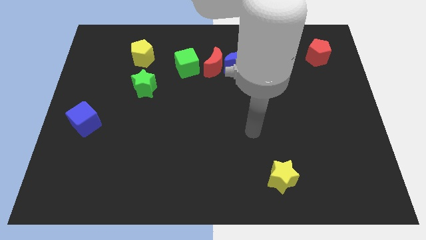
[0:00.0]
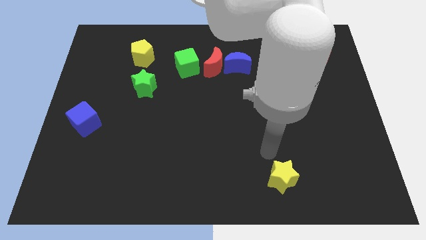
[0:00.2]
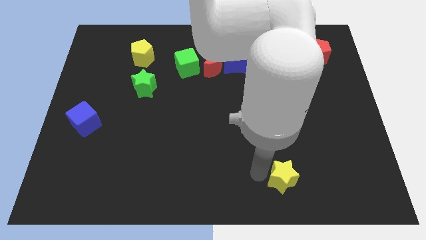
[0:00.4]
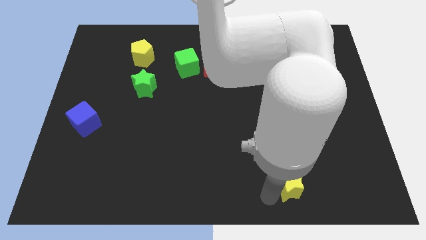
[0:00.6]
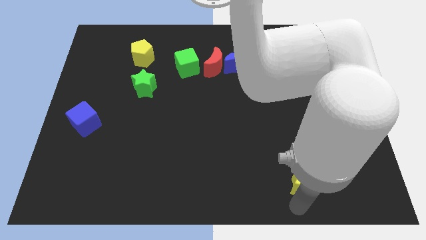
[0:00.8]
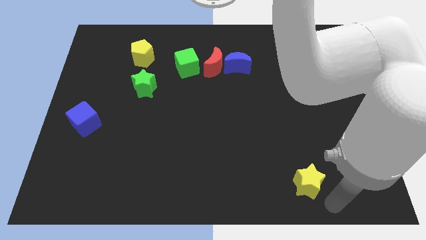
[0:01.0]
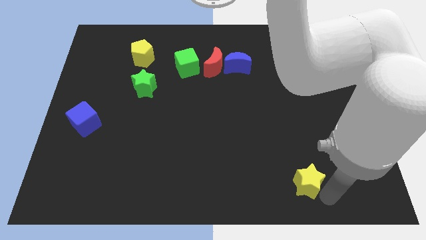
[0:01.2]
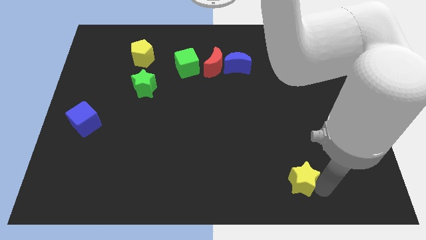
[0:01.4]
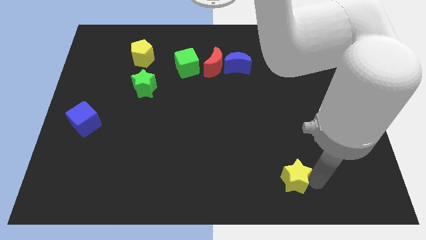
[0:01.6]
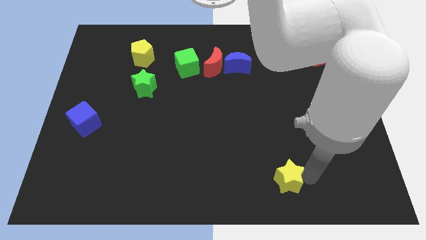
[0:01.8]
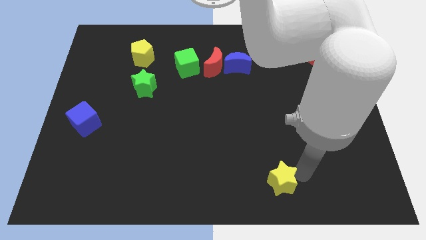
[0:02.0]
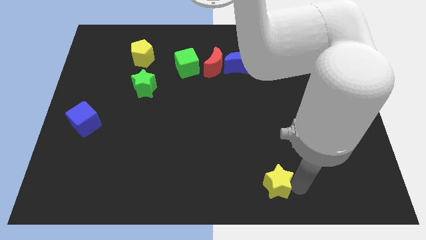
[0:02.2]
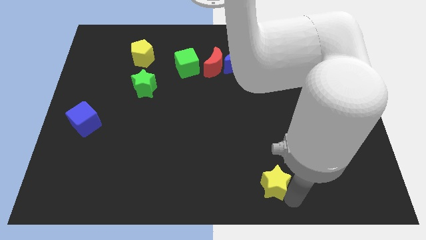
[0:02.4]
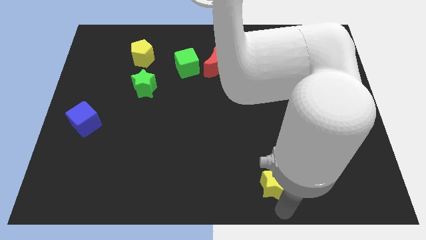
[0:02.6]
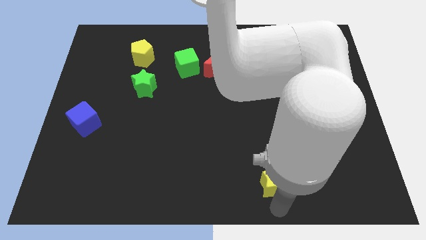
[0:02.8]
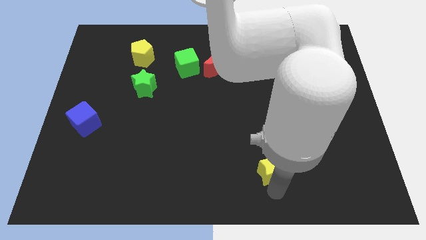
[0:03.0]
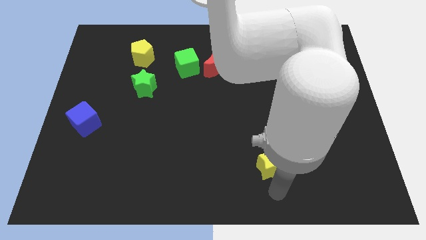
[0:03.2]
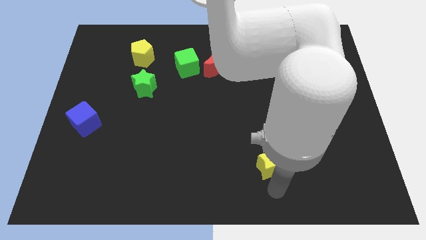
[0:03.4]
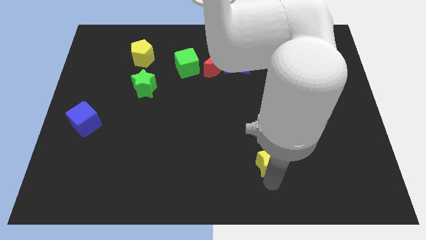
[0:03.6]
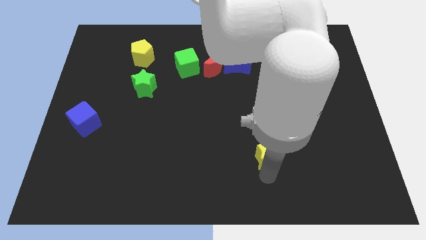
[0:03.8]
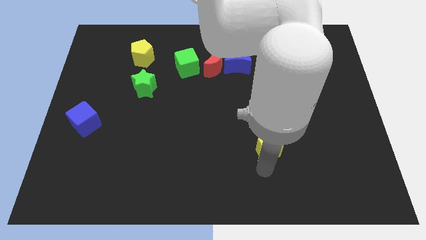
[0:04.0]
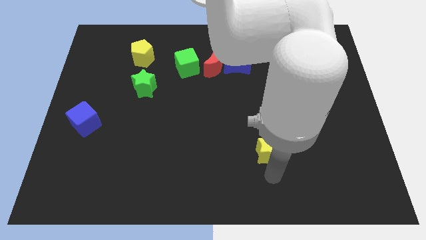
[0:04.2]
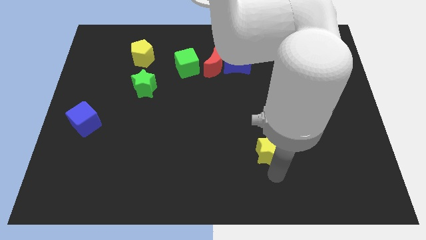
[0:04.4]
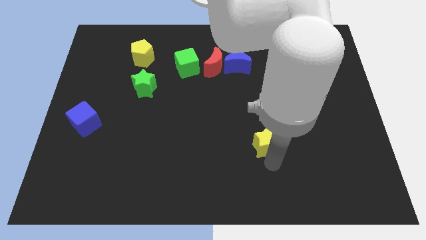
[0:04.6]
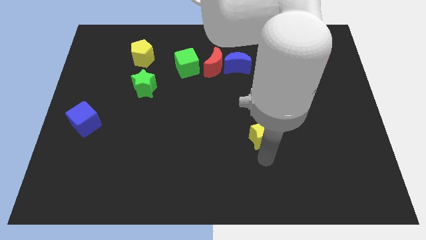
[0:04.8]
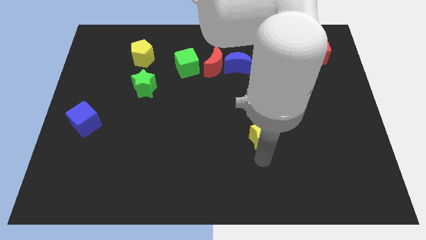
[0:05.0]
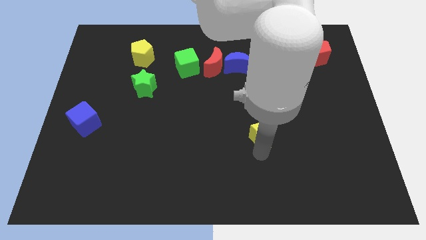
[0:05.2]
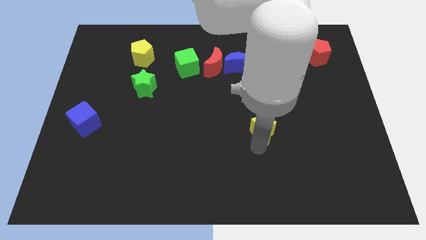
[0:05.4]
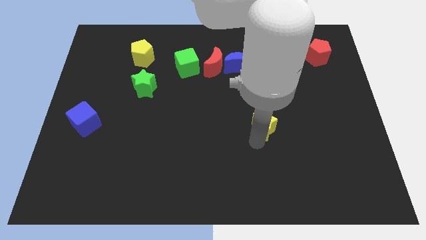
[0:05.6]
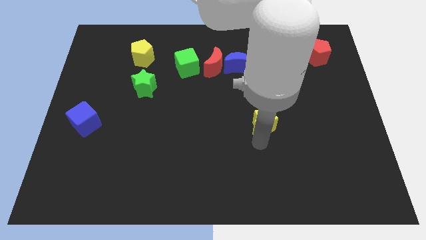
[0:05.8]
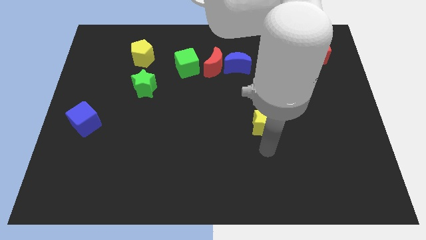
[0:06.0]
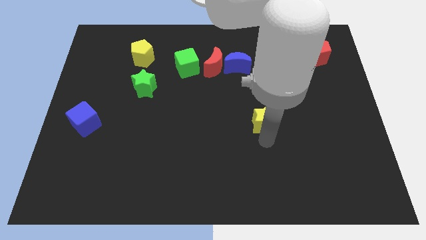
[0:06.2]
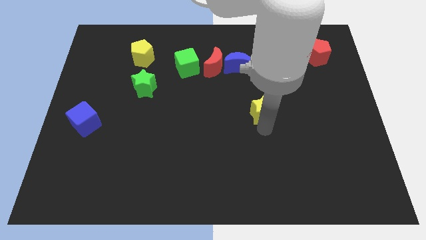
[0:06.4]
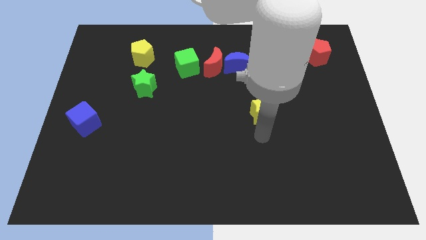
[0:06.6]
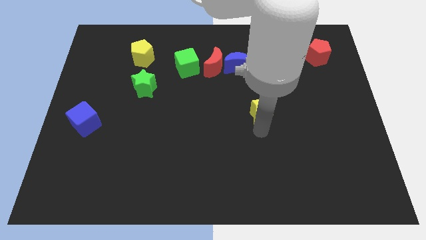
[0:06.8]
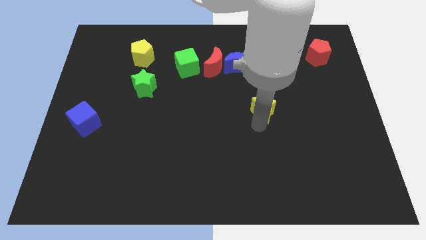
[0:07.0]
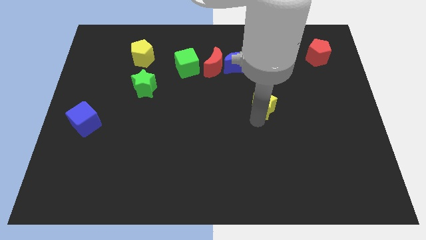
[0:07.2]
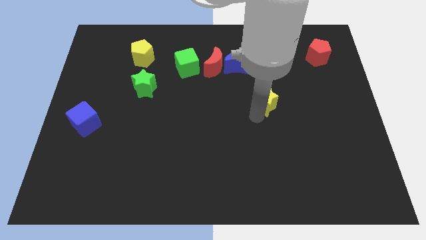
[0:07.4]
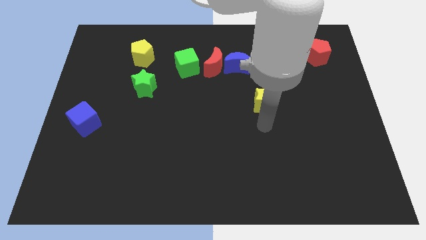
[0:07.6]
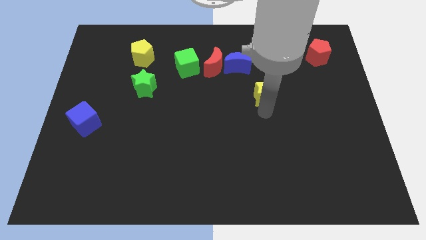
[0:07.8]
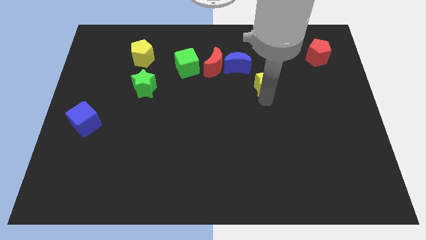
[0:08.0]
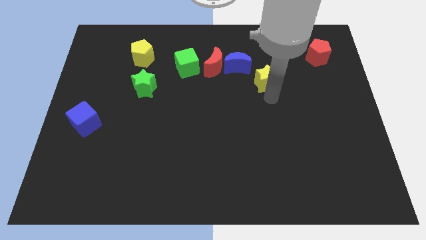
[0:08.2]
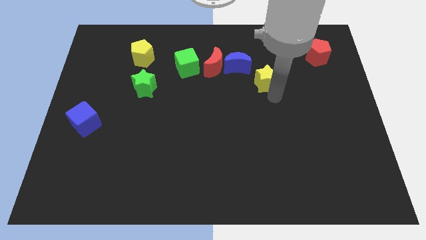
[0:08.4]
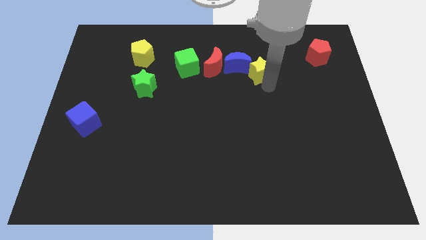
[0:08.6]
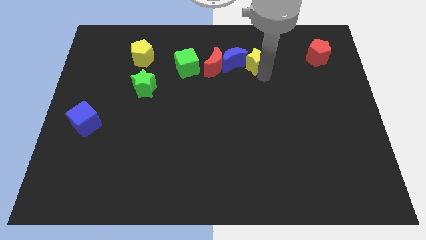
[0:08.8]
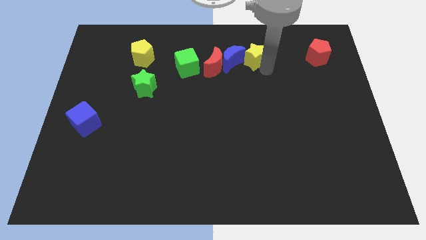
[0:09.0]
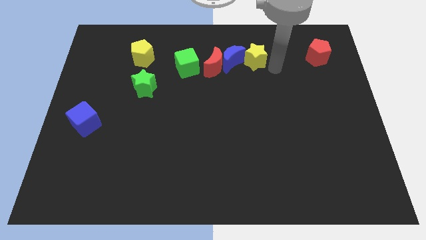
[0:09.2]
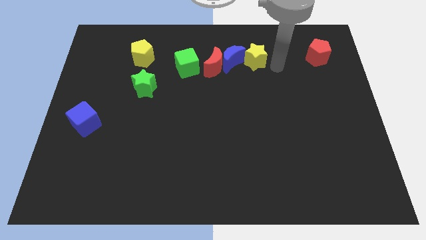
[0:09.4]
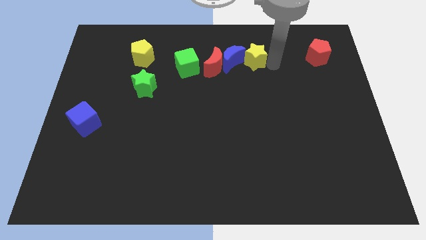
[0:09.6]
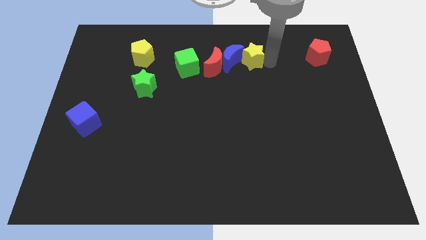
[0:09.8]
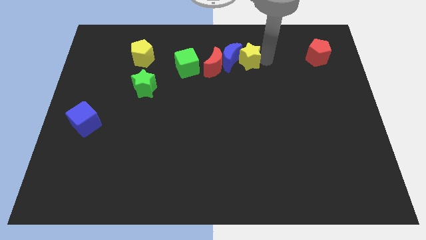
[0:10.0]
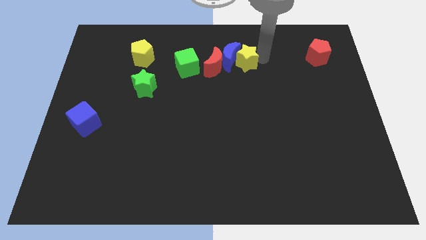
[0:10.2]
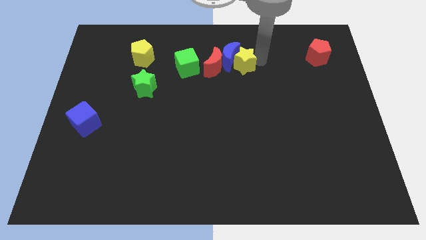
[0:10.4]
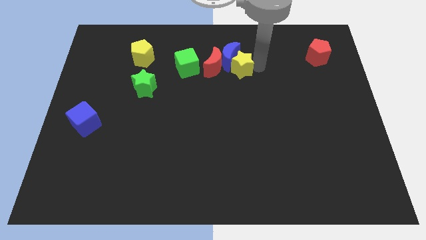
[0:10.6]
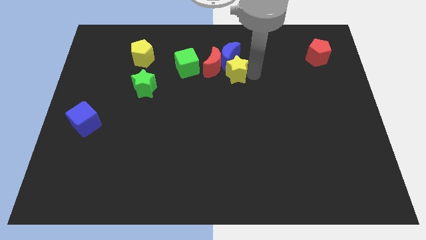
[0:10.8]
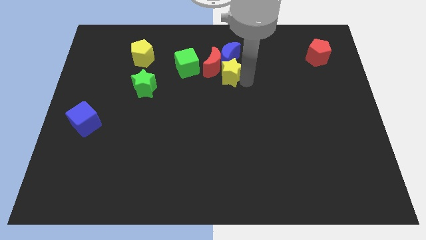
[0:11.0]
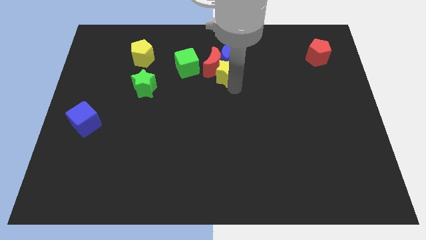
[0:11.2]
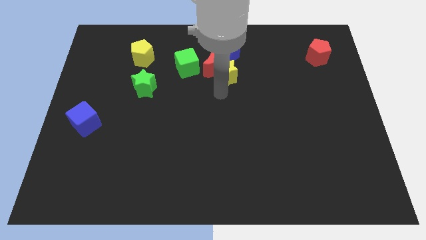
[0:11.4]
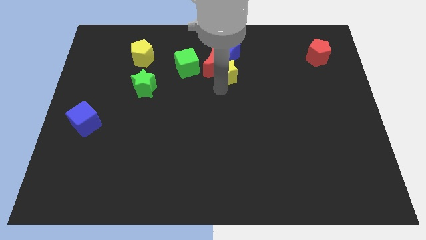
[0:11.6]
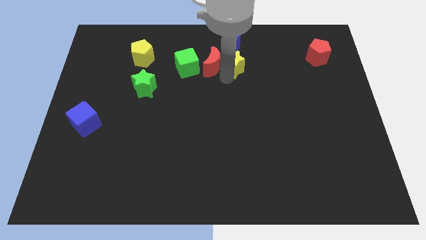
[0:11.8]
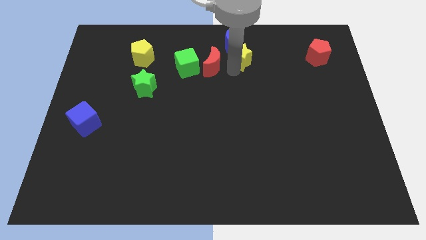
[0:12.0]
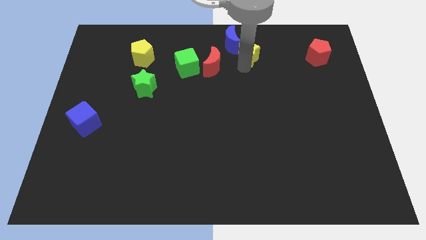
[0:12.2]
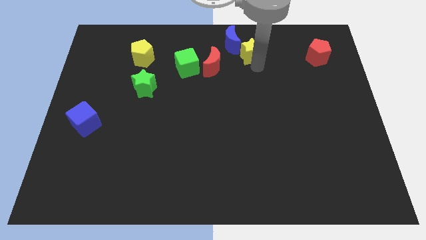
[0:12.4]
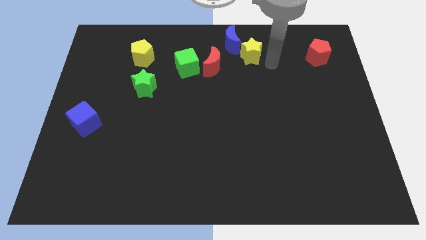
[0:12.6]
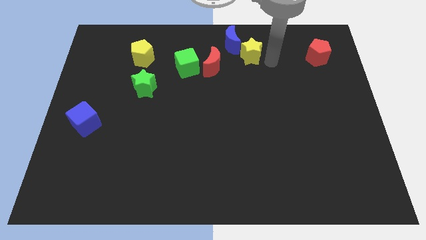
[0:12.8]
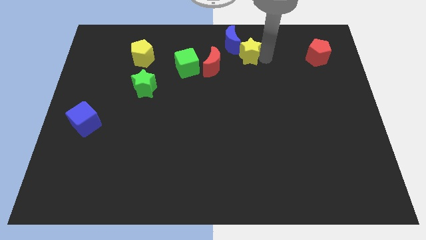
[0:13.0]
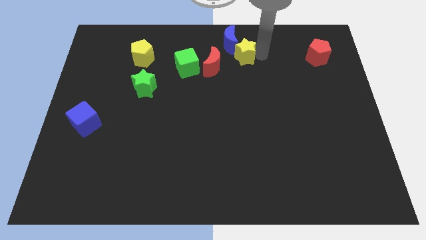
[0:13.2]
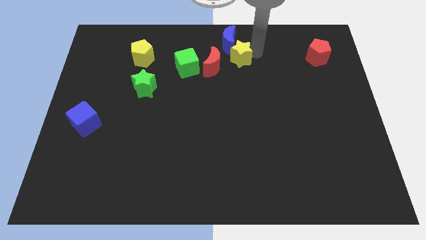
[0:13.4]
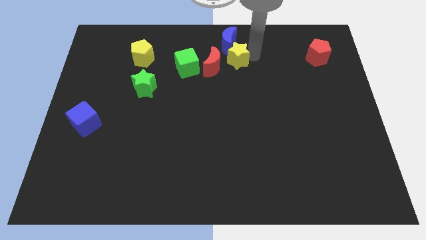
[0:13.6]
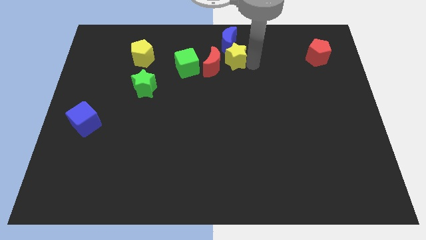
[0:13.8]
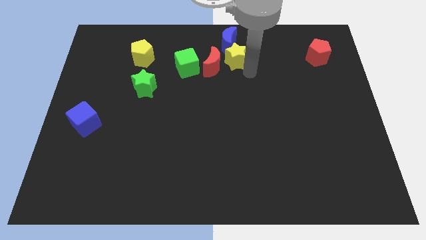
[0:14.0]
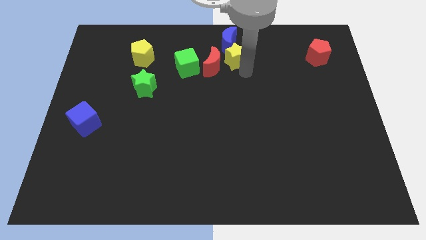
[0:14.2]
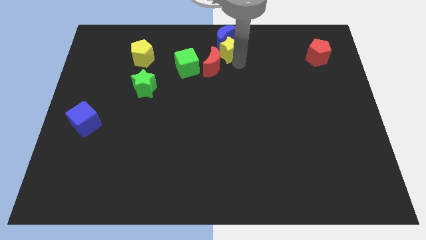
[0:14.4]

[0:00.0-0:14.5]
push the yellow star to the top side
